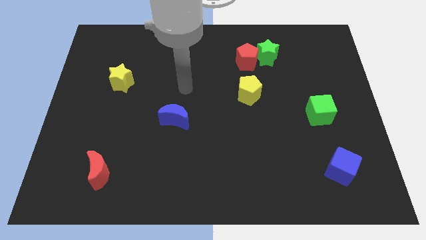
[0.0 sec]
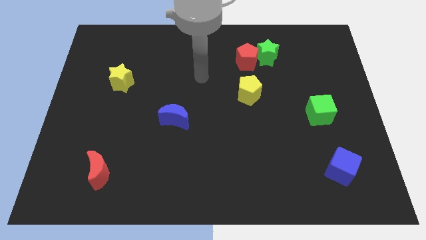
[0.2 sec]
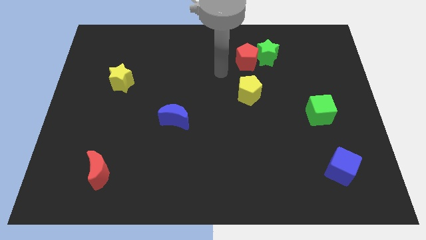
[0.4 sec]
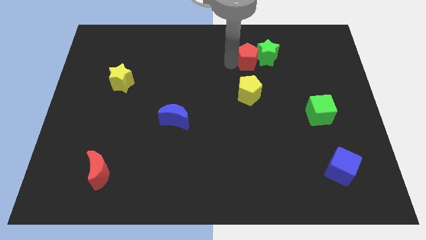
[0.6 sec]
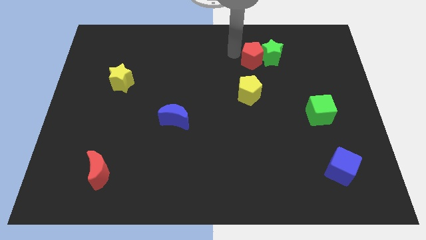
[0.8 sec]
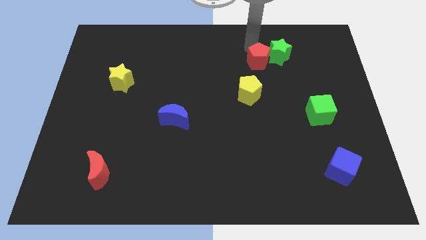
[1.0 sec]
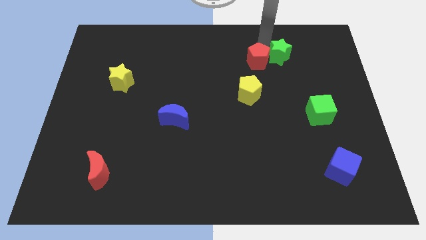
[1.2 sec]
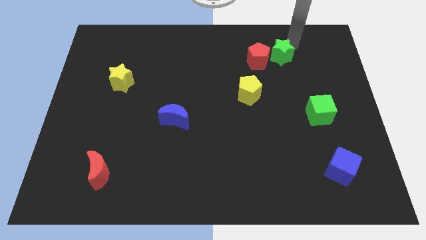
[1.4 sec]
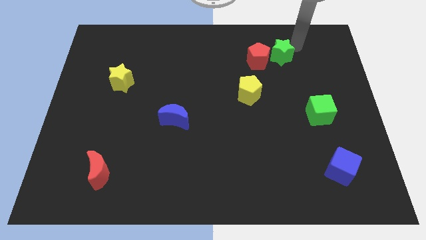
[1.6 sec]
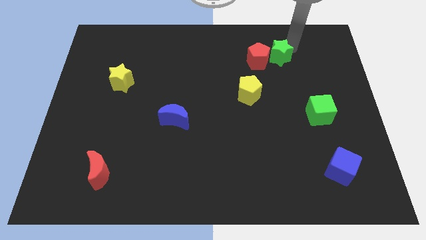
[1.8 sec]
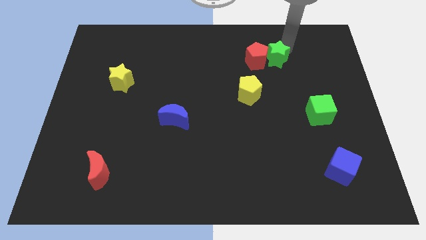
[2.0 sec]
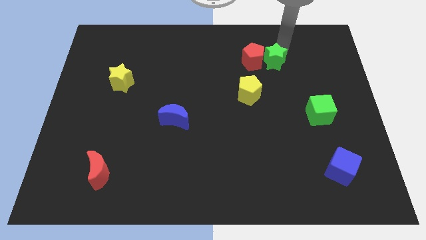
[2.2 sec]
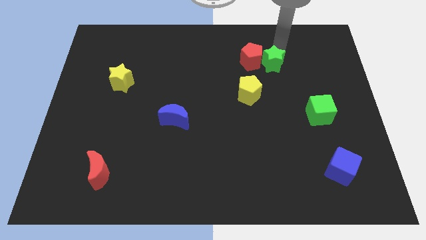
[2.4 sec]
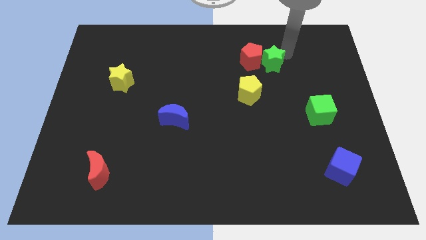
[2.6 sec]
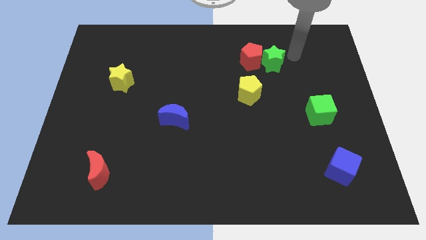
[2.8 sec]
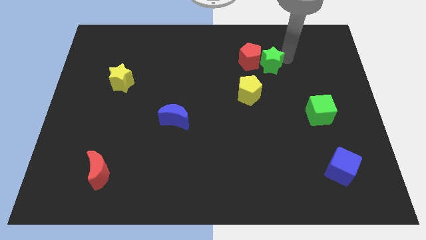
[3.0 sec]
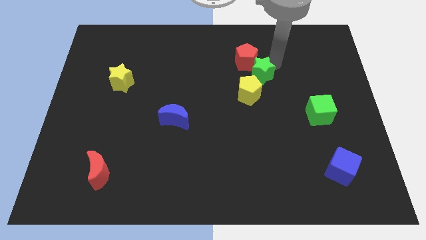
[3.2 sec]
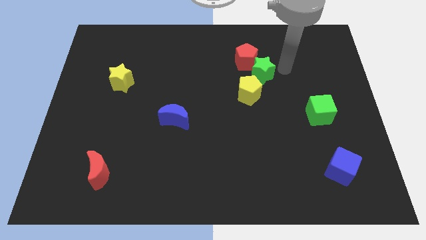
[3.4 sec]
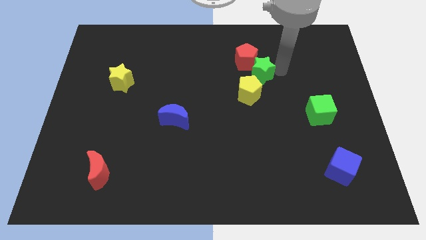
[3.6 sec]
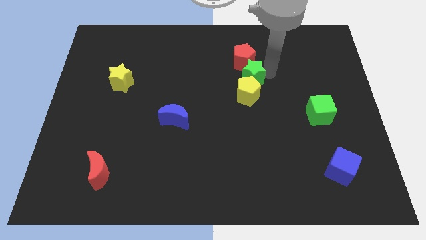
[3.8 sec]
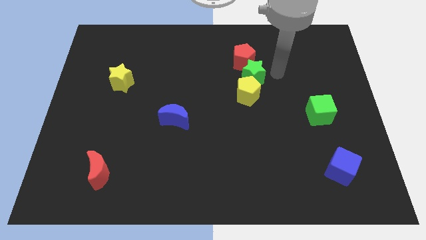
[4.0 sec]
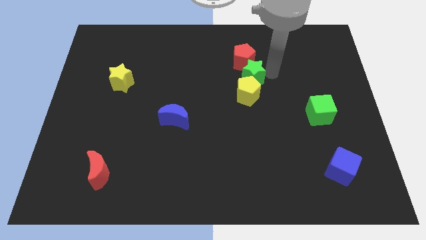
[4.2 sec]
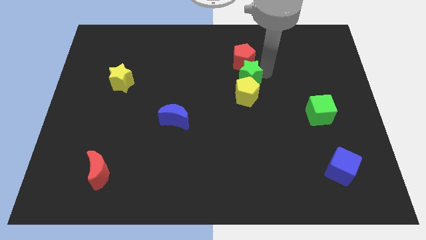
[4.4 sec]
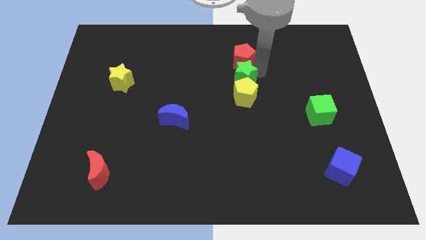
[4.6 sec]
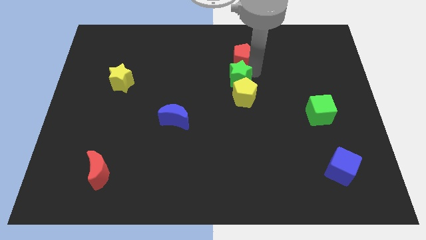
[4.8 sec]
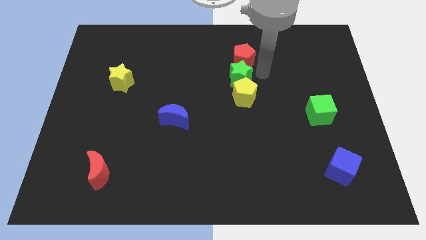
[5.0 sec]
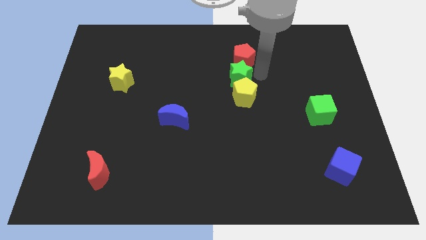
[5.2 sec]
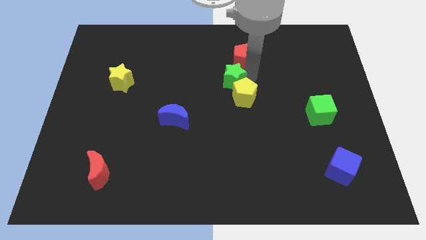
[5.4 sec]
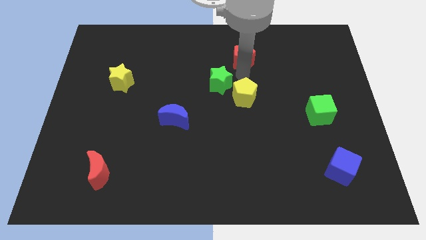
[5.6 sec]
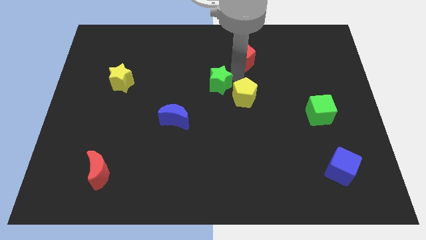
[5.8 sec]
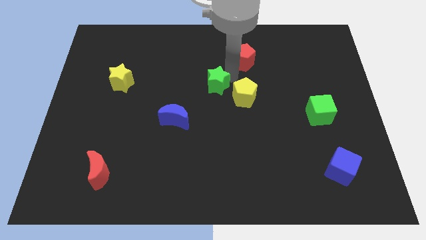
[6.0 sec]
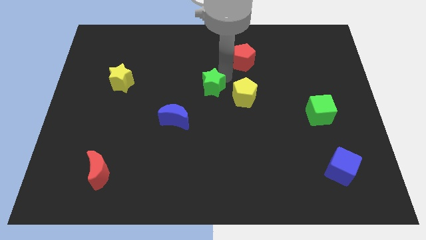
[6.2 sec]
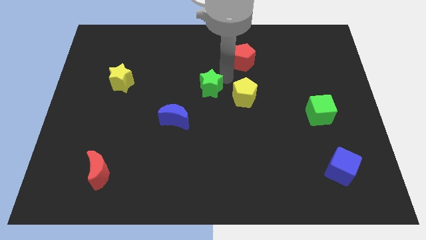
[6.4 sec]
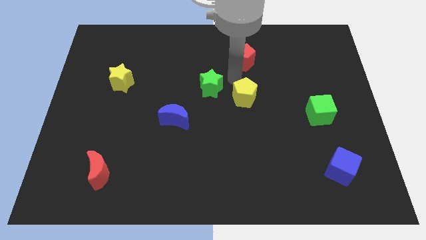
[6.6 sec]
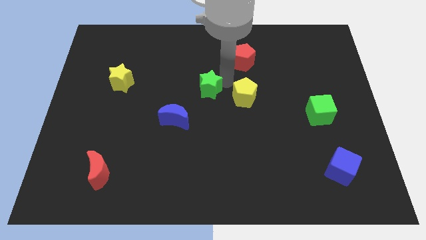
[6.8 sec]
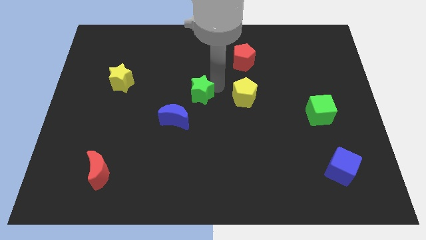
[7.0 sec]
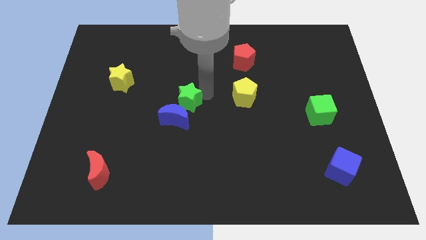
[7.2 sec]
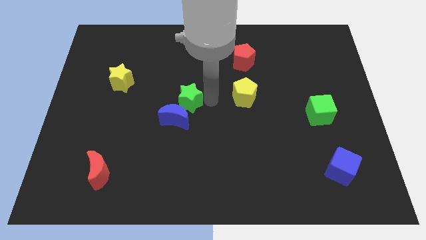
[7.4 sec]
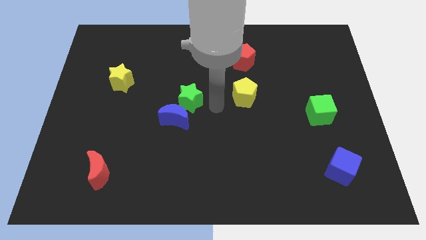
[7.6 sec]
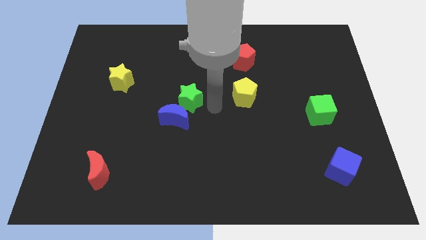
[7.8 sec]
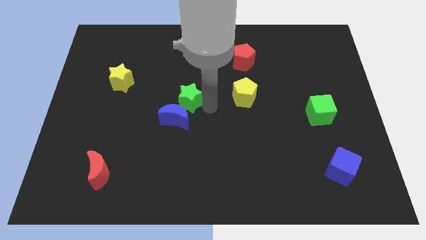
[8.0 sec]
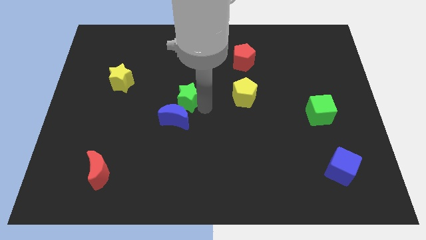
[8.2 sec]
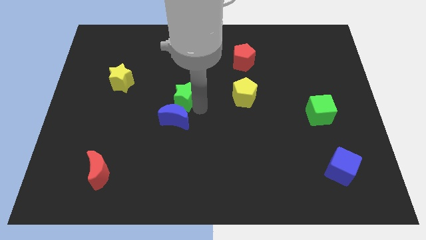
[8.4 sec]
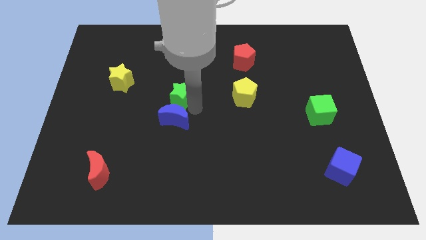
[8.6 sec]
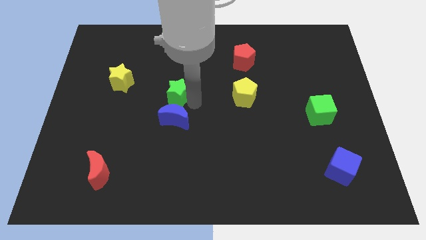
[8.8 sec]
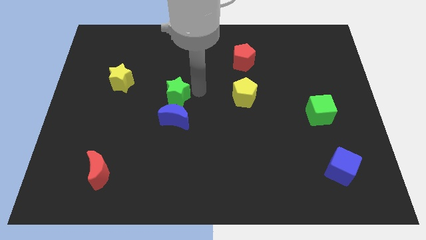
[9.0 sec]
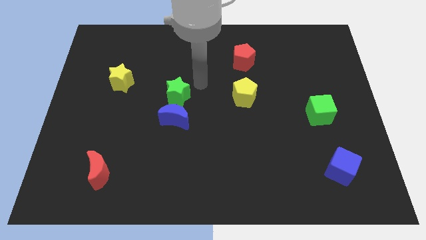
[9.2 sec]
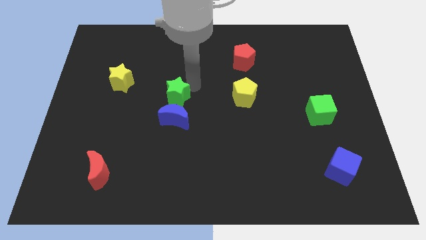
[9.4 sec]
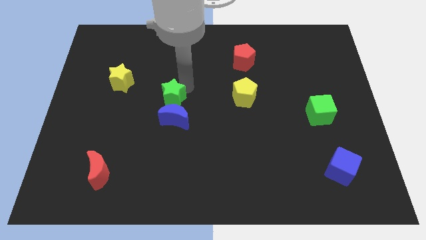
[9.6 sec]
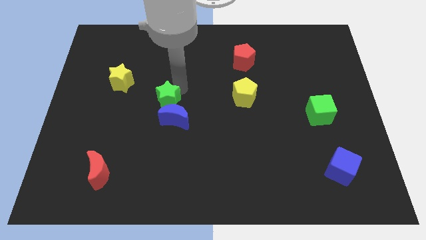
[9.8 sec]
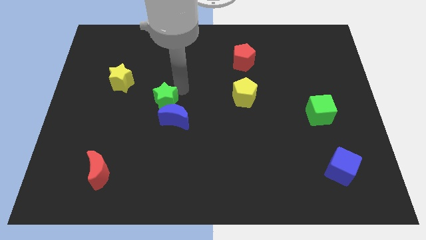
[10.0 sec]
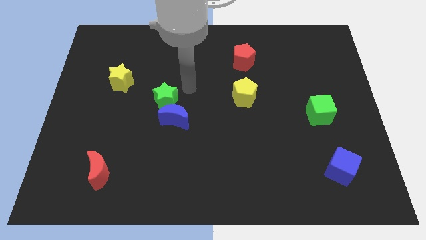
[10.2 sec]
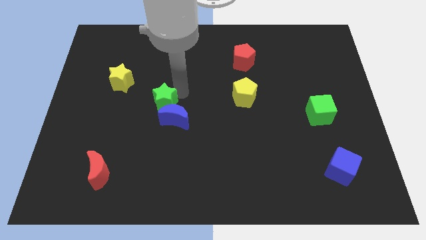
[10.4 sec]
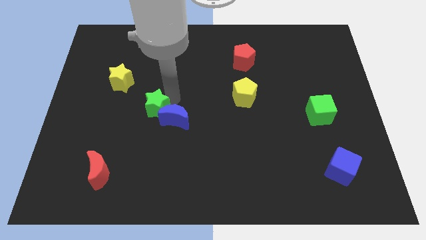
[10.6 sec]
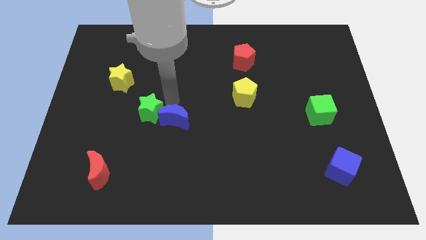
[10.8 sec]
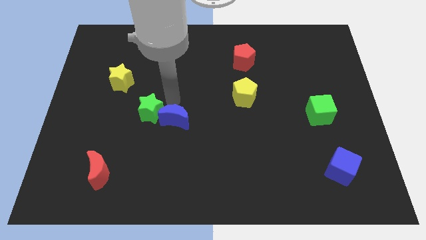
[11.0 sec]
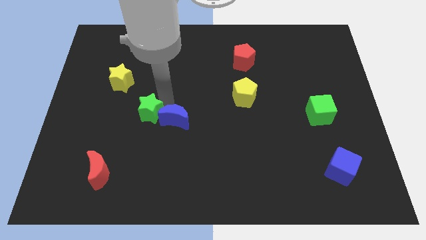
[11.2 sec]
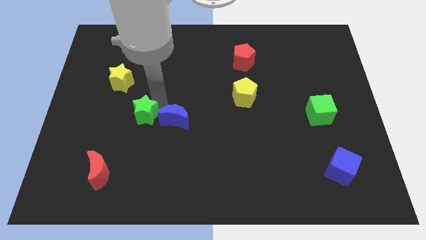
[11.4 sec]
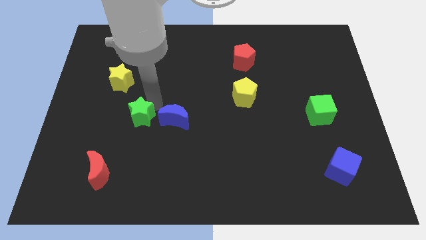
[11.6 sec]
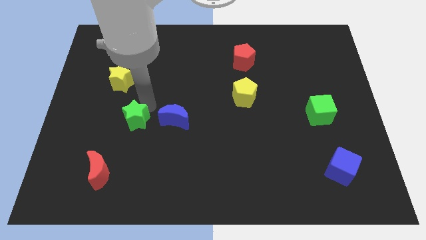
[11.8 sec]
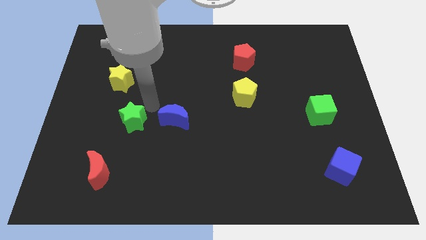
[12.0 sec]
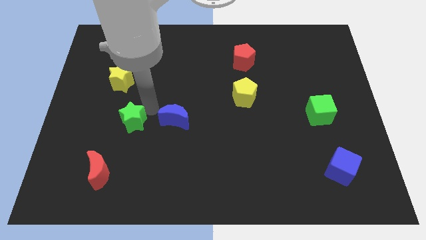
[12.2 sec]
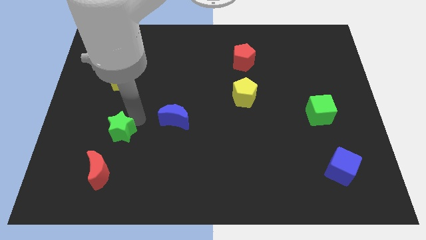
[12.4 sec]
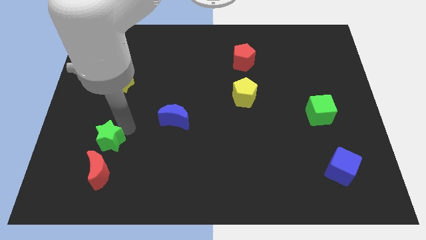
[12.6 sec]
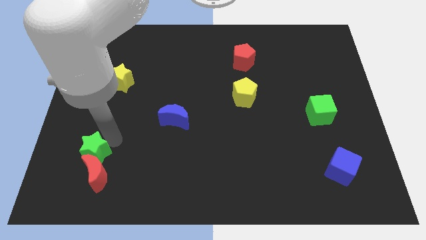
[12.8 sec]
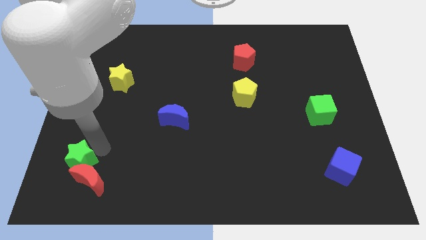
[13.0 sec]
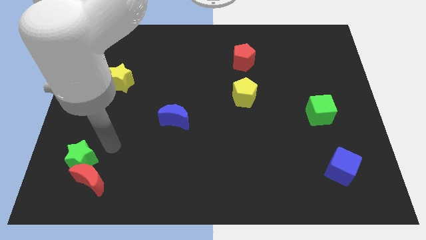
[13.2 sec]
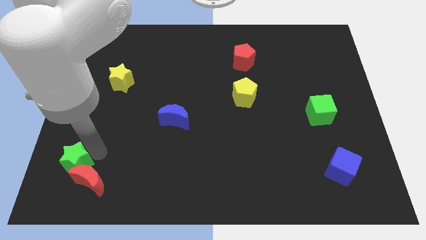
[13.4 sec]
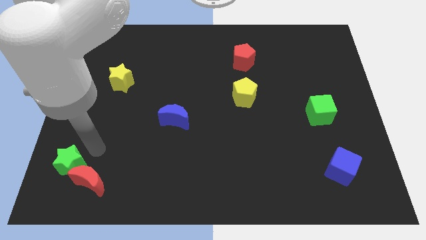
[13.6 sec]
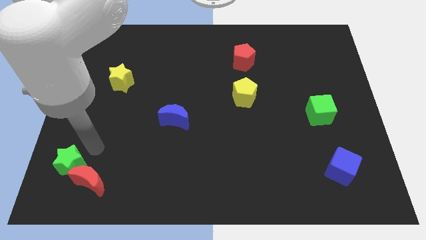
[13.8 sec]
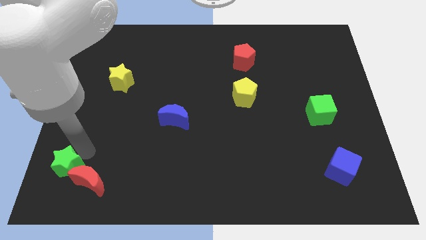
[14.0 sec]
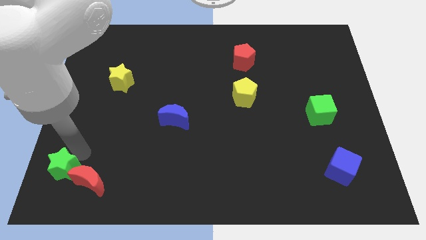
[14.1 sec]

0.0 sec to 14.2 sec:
put the green star to the lower left corner
